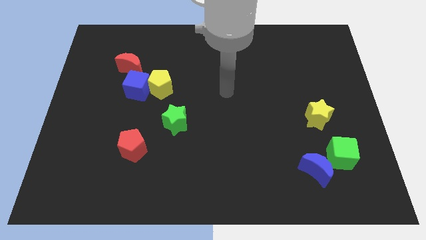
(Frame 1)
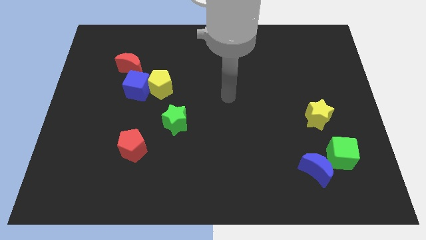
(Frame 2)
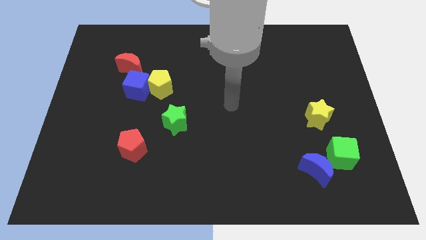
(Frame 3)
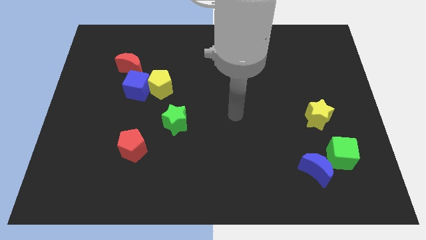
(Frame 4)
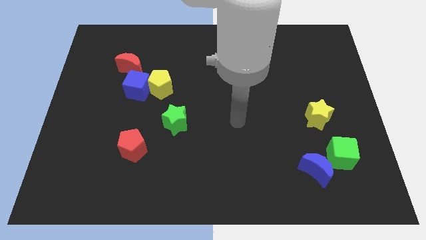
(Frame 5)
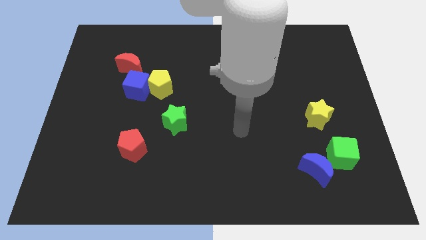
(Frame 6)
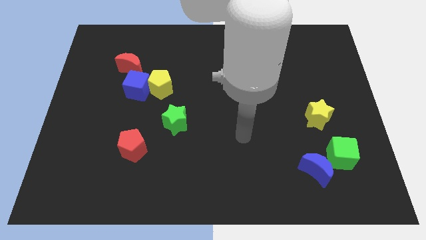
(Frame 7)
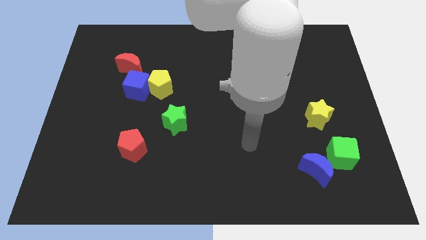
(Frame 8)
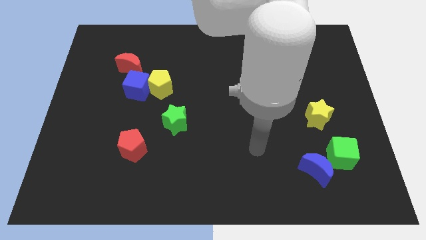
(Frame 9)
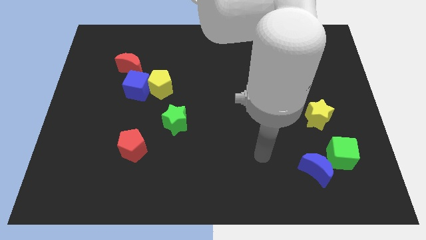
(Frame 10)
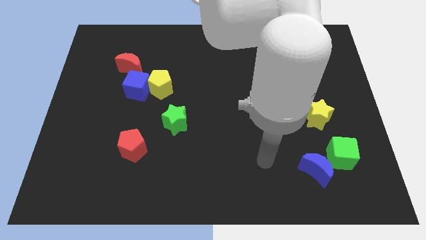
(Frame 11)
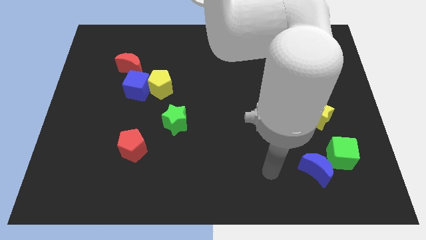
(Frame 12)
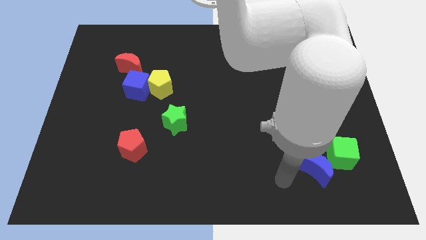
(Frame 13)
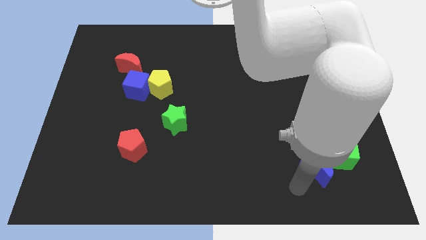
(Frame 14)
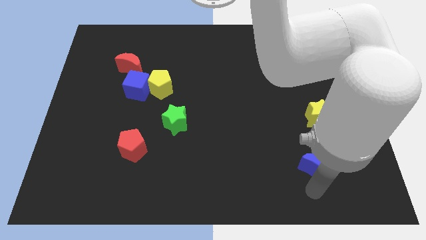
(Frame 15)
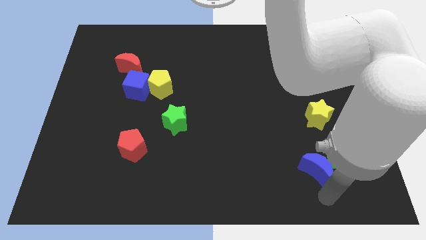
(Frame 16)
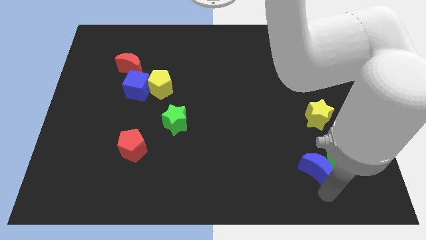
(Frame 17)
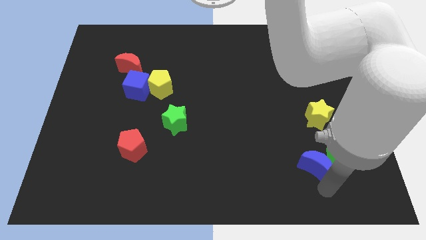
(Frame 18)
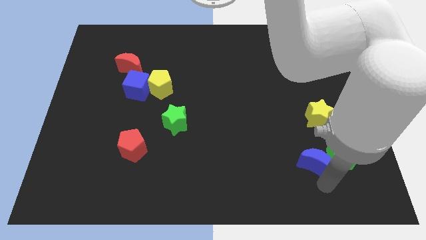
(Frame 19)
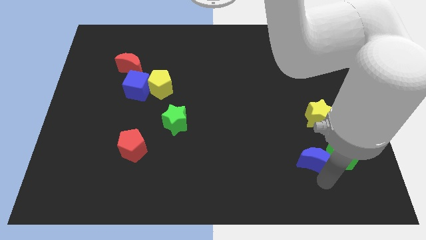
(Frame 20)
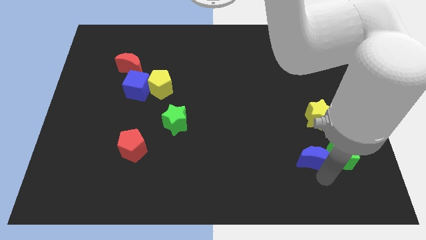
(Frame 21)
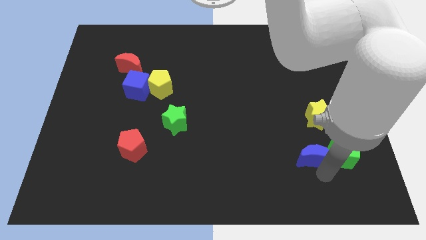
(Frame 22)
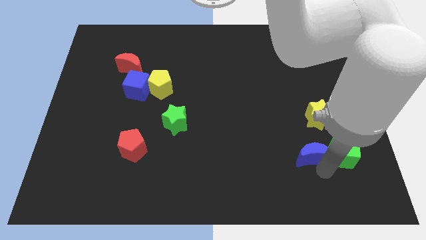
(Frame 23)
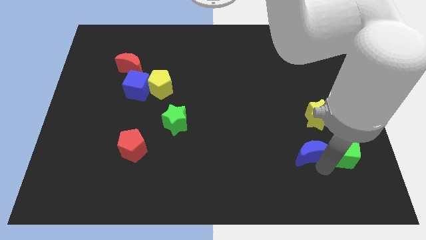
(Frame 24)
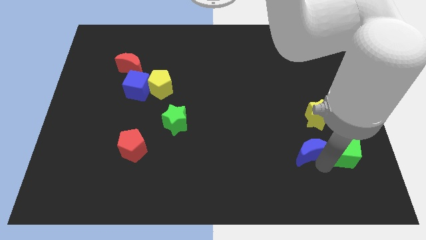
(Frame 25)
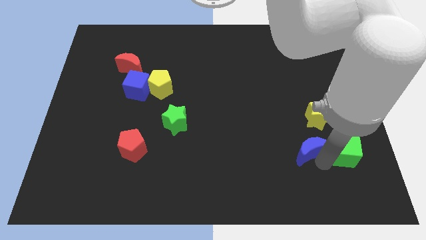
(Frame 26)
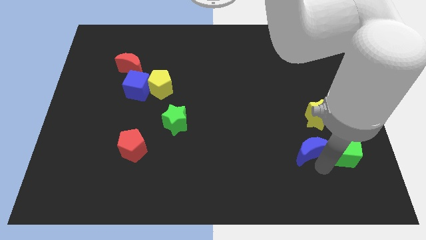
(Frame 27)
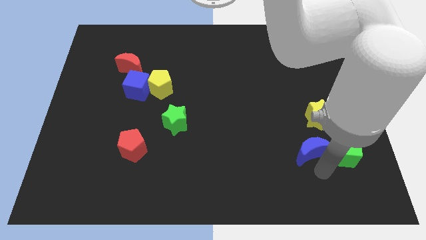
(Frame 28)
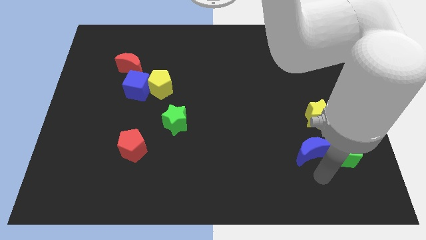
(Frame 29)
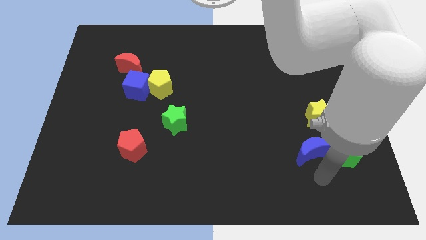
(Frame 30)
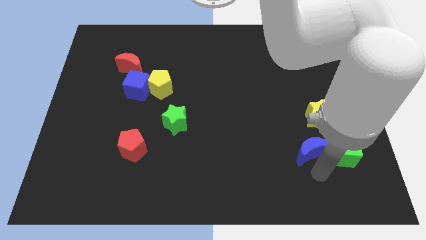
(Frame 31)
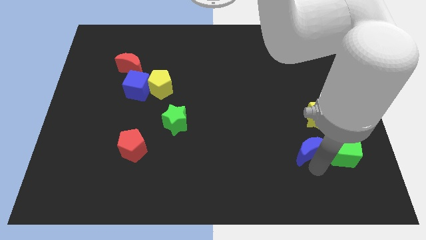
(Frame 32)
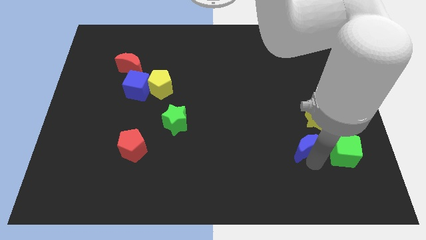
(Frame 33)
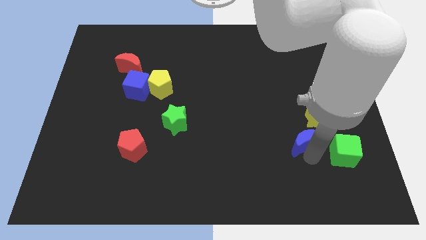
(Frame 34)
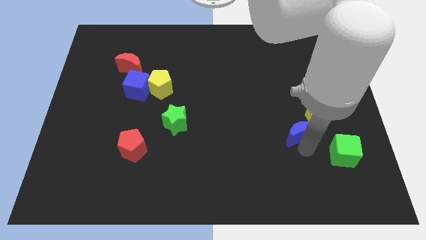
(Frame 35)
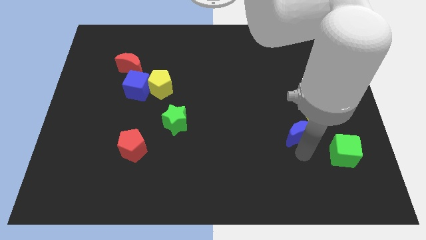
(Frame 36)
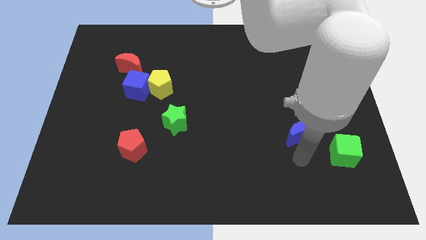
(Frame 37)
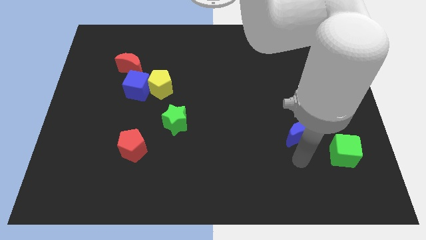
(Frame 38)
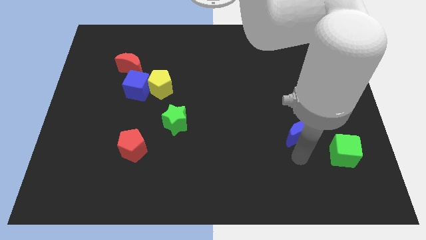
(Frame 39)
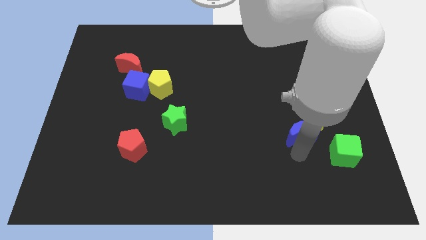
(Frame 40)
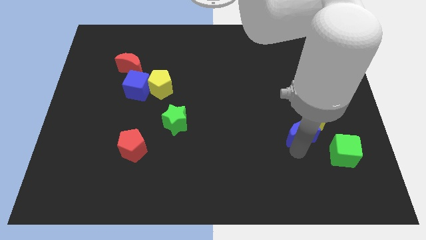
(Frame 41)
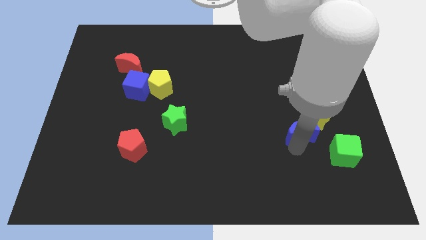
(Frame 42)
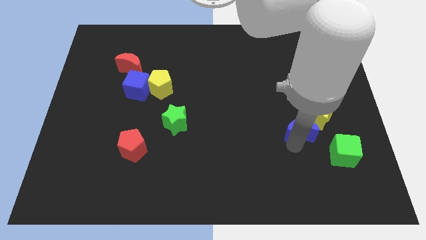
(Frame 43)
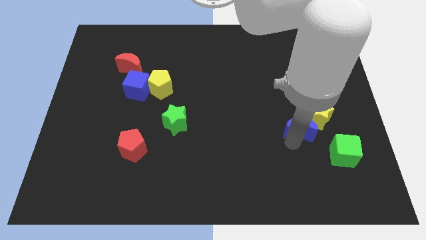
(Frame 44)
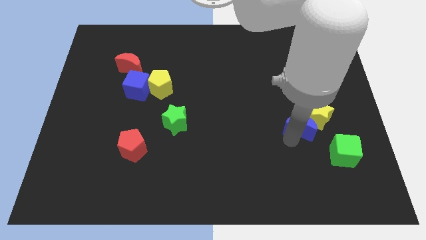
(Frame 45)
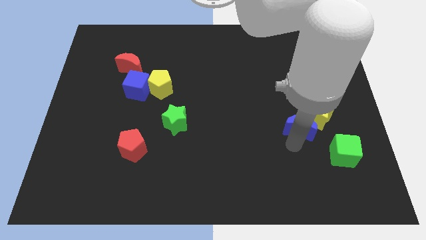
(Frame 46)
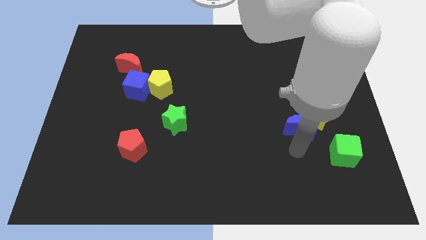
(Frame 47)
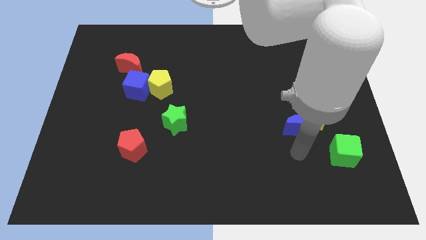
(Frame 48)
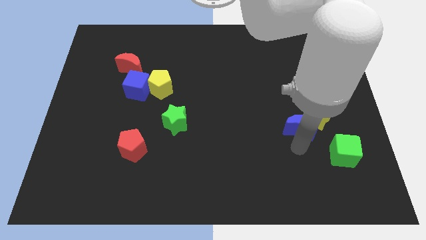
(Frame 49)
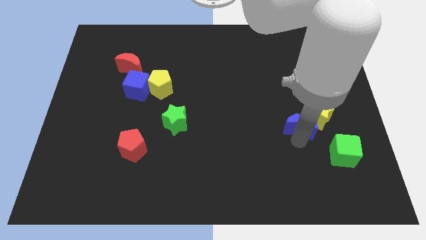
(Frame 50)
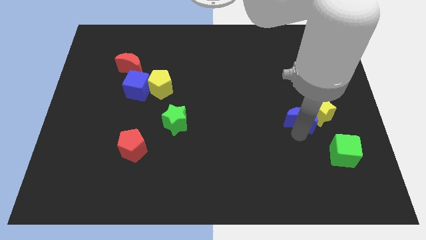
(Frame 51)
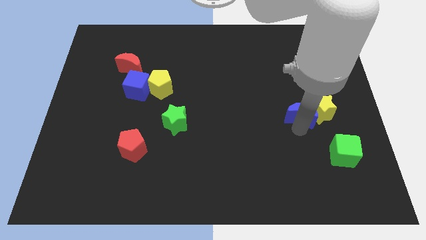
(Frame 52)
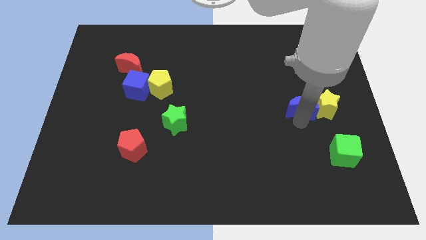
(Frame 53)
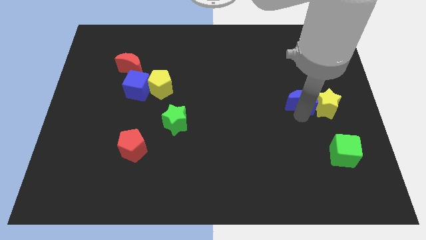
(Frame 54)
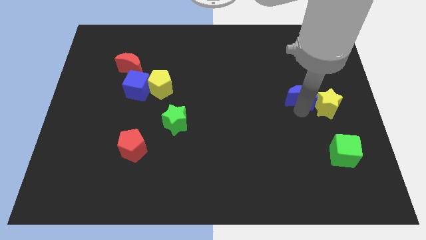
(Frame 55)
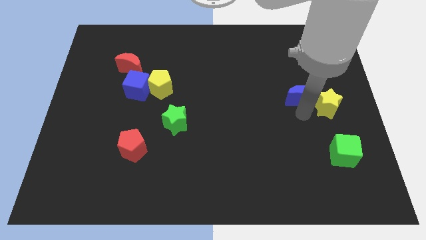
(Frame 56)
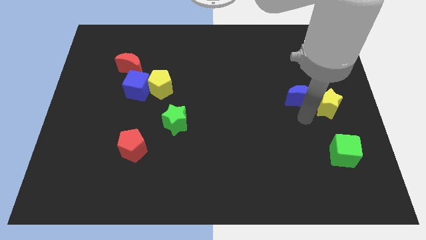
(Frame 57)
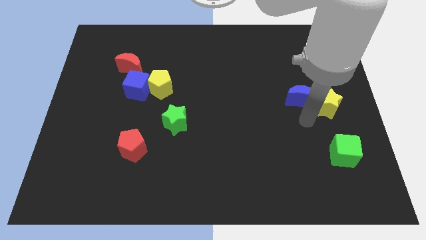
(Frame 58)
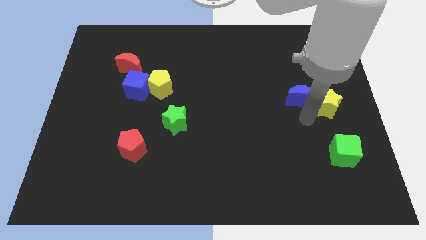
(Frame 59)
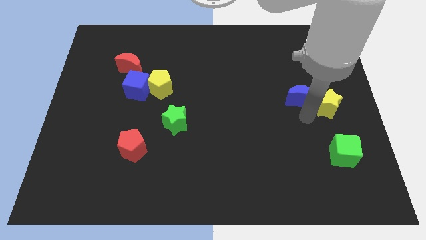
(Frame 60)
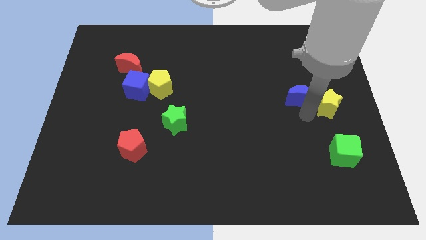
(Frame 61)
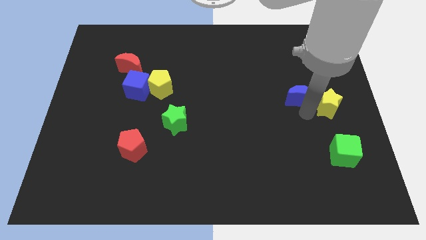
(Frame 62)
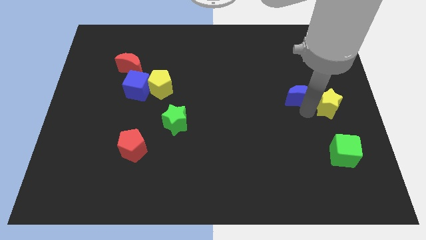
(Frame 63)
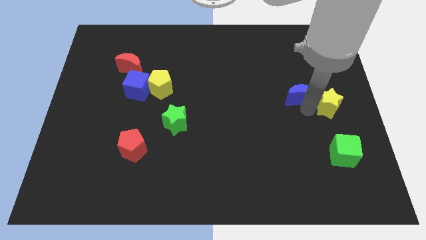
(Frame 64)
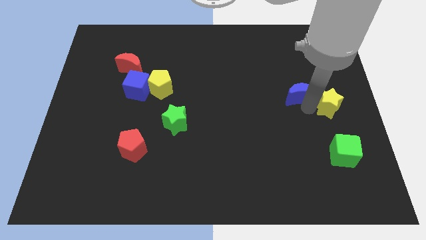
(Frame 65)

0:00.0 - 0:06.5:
push the blue moon up

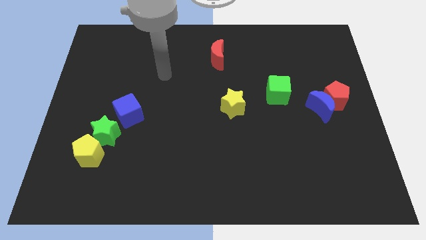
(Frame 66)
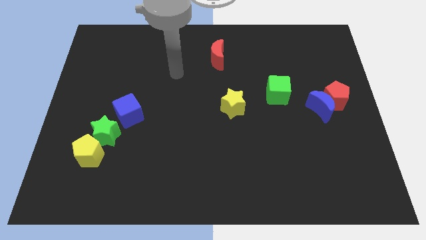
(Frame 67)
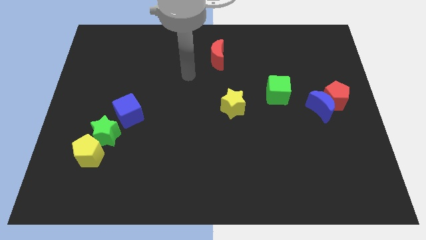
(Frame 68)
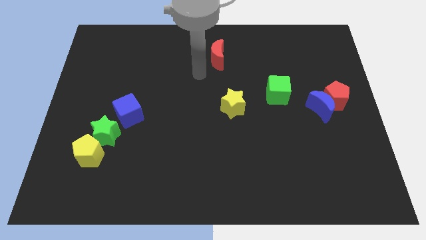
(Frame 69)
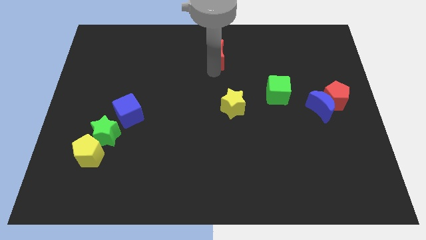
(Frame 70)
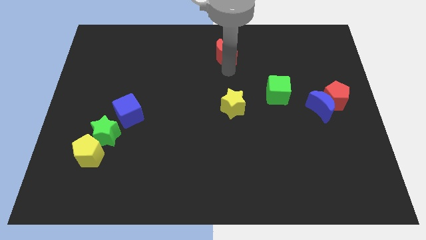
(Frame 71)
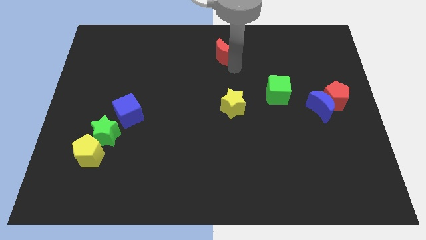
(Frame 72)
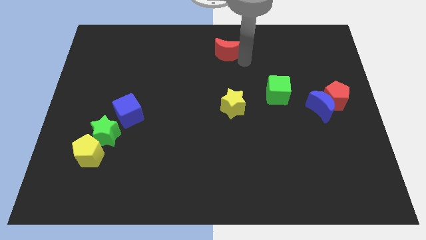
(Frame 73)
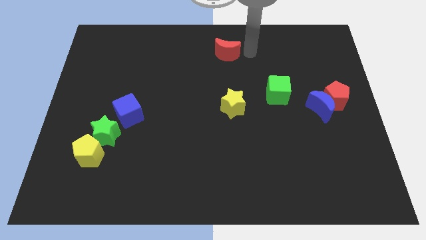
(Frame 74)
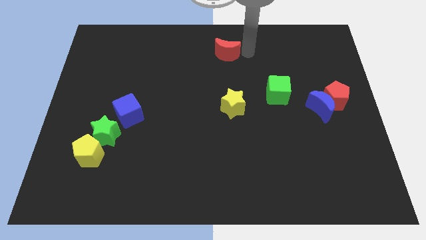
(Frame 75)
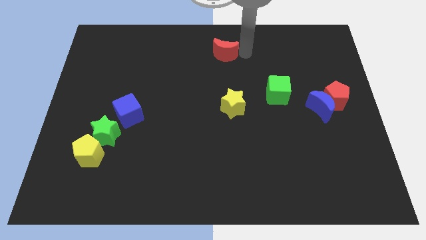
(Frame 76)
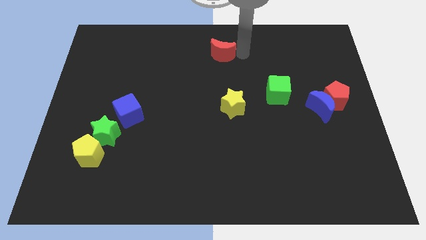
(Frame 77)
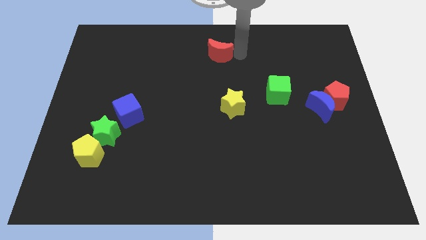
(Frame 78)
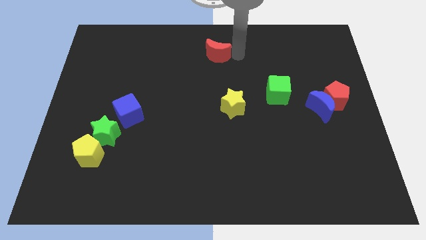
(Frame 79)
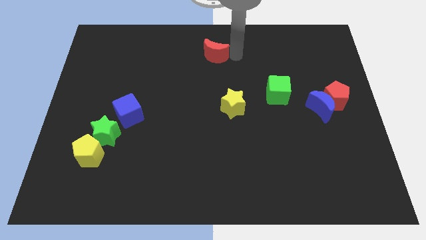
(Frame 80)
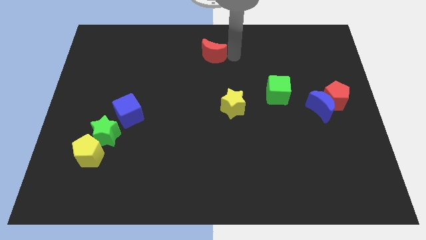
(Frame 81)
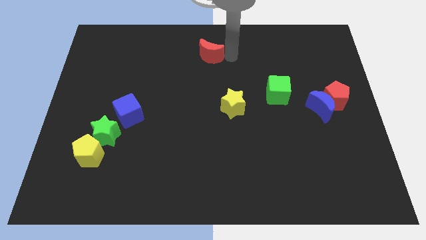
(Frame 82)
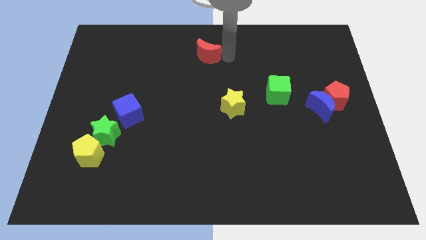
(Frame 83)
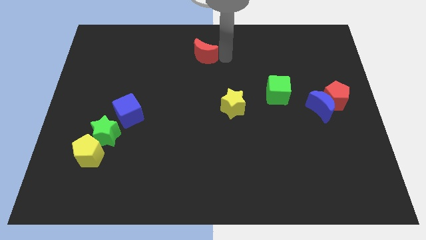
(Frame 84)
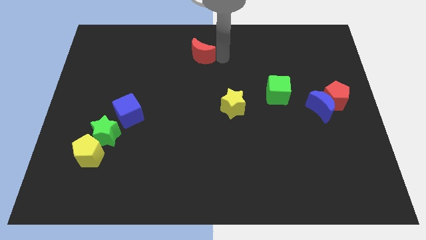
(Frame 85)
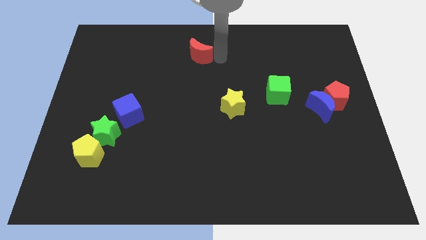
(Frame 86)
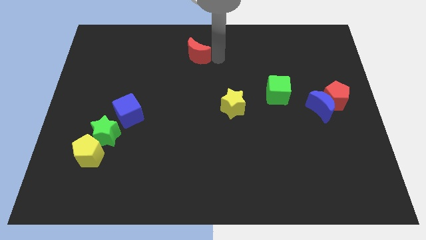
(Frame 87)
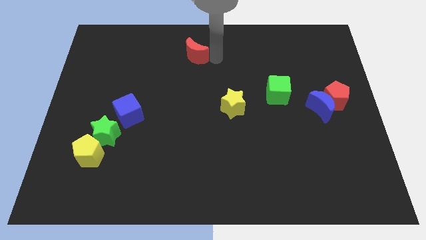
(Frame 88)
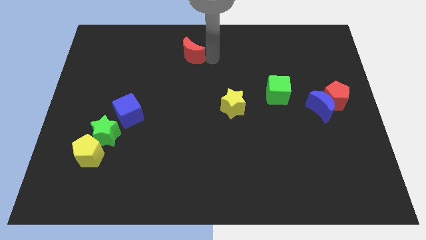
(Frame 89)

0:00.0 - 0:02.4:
slightly move the red moon to the left
